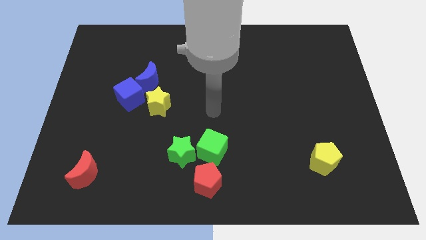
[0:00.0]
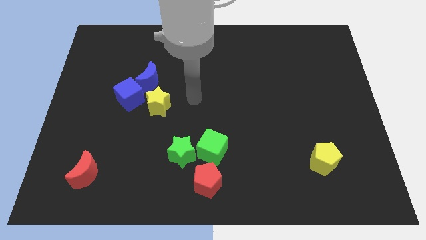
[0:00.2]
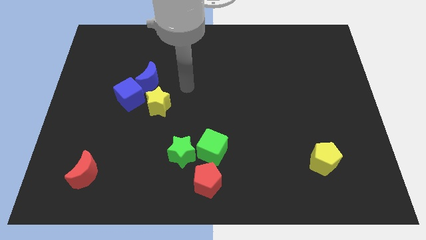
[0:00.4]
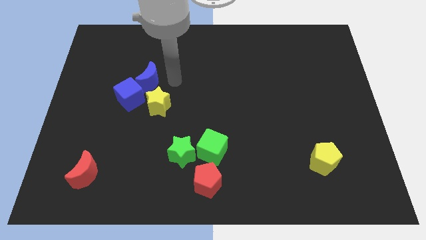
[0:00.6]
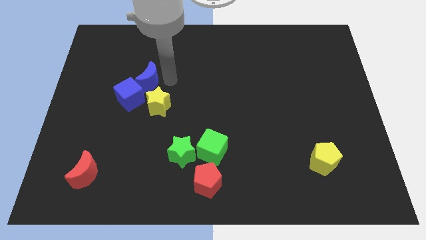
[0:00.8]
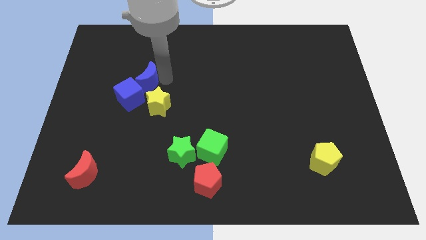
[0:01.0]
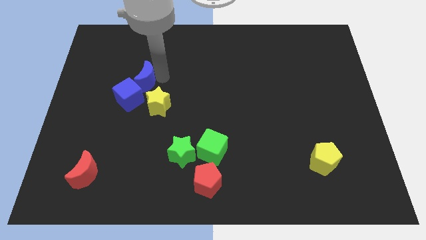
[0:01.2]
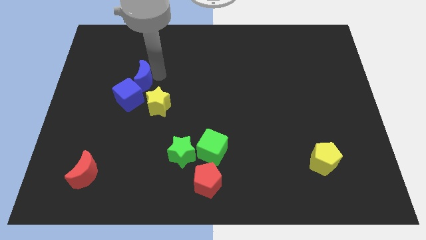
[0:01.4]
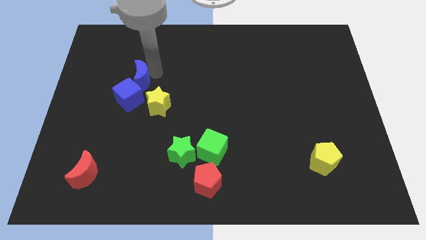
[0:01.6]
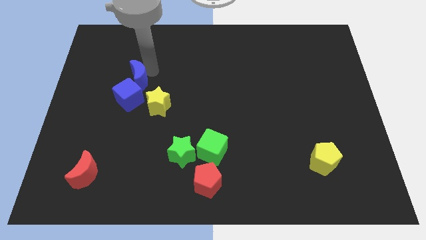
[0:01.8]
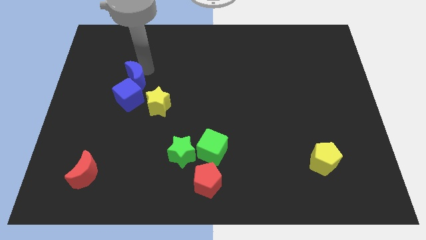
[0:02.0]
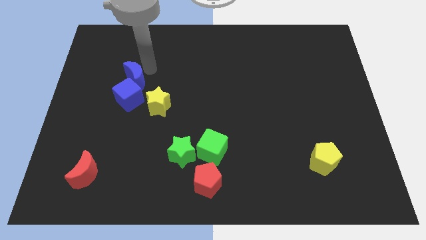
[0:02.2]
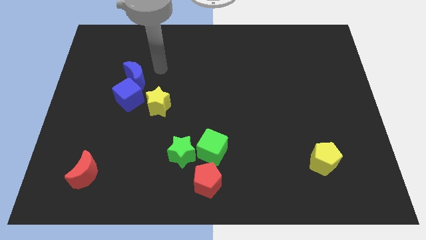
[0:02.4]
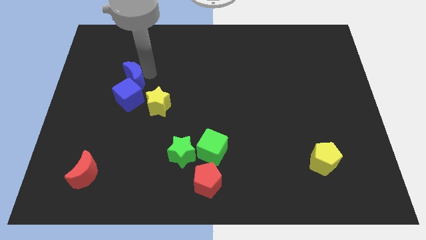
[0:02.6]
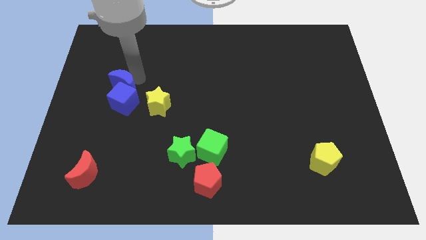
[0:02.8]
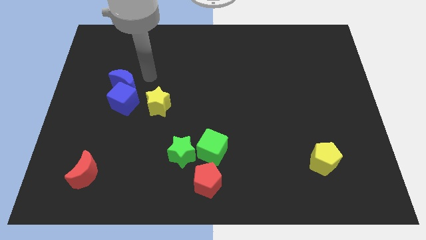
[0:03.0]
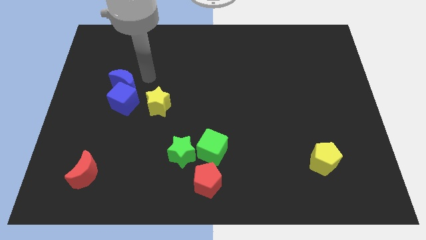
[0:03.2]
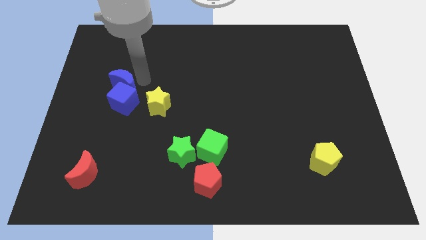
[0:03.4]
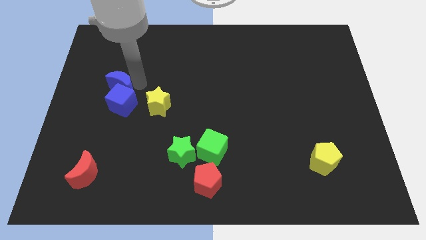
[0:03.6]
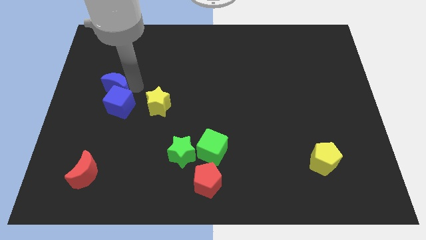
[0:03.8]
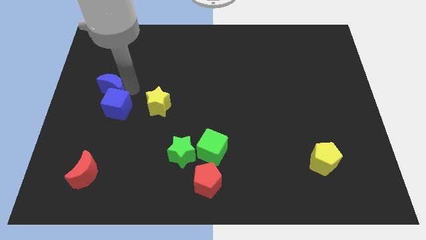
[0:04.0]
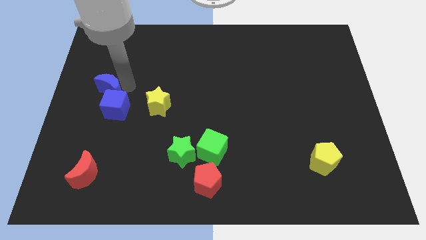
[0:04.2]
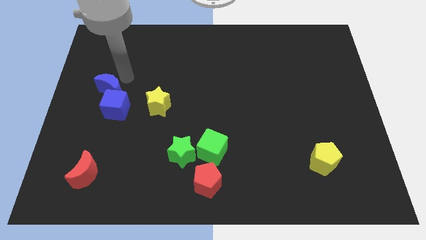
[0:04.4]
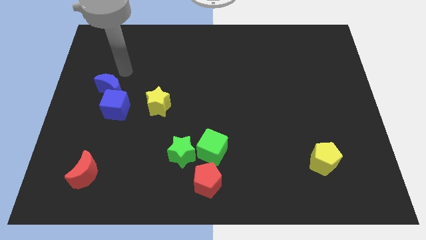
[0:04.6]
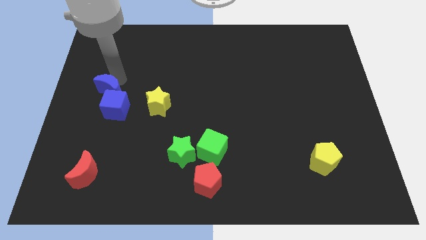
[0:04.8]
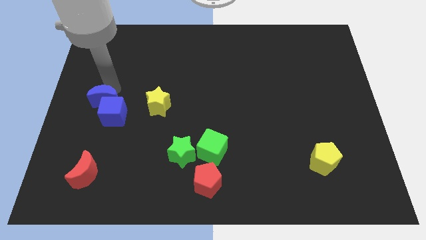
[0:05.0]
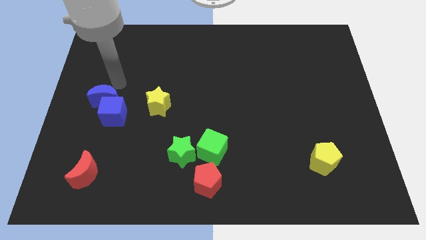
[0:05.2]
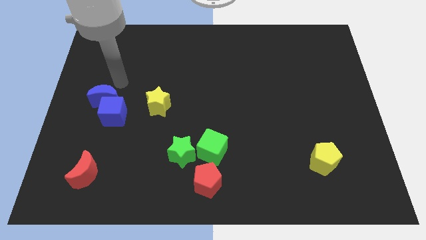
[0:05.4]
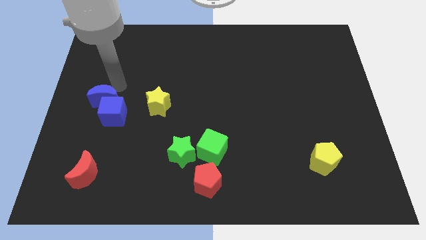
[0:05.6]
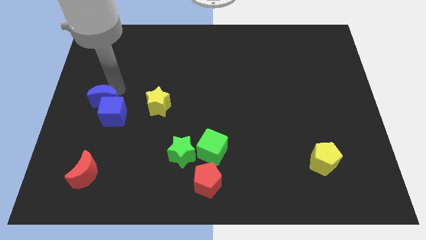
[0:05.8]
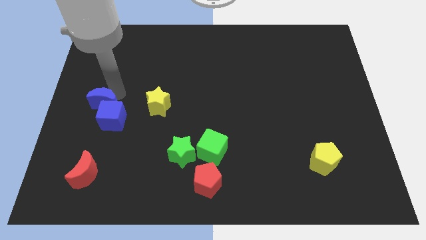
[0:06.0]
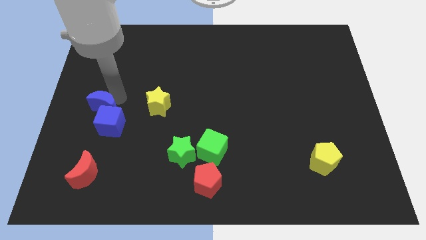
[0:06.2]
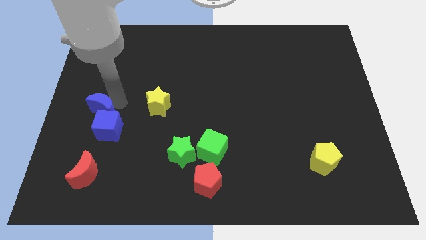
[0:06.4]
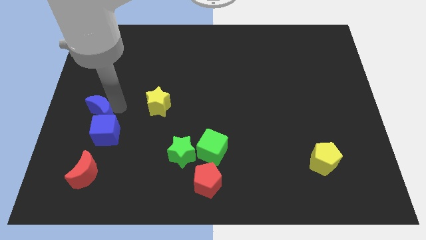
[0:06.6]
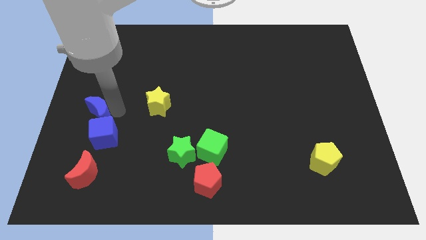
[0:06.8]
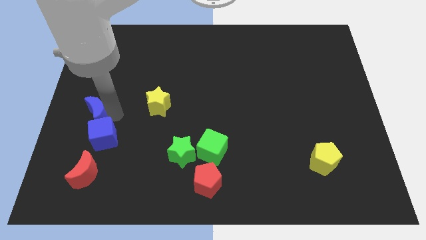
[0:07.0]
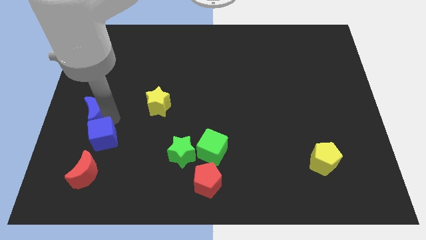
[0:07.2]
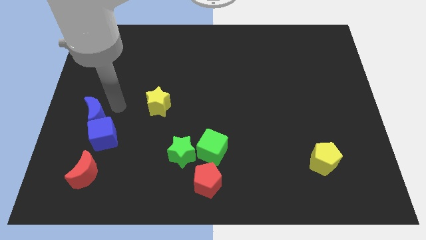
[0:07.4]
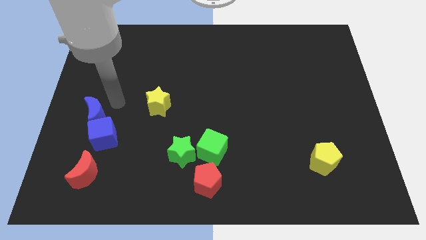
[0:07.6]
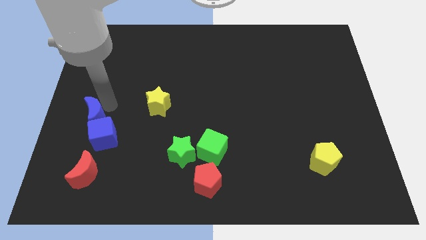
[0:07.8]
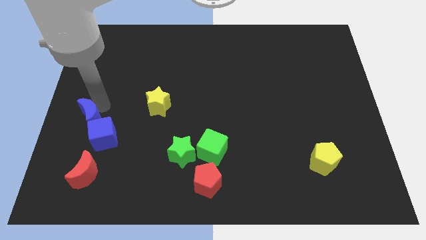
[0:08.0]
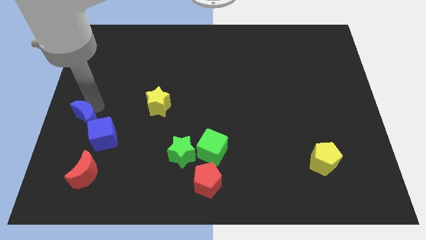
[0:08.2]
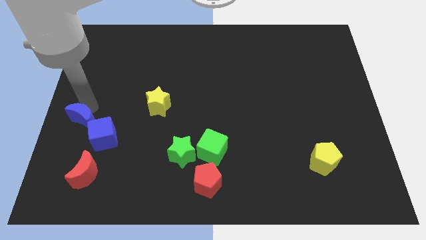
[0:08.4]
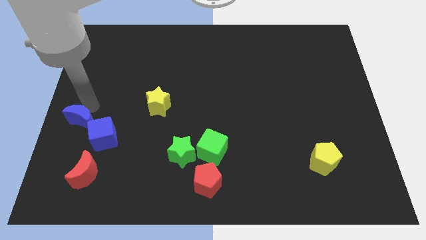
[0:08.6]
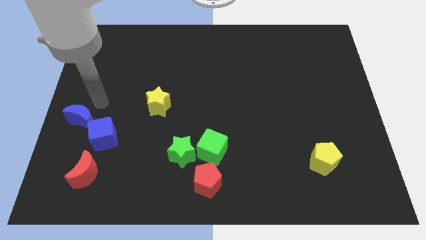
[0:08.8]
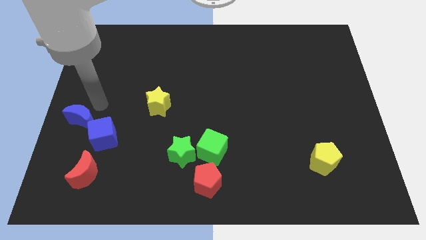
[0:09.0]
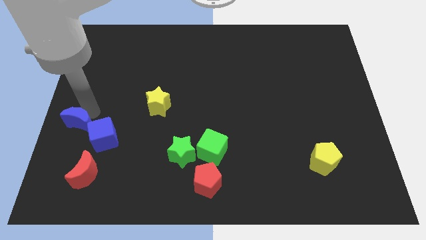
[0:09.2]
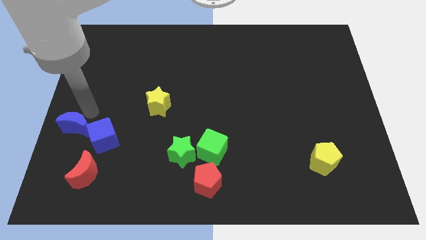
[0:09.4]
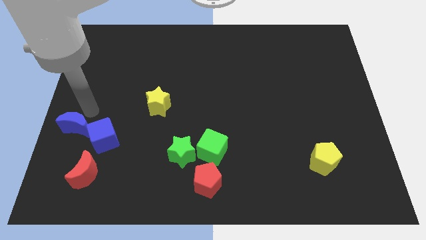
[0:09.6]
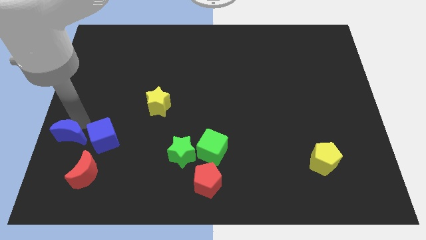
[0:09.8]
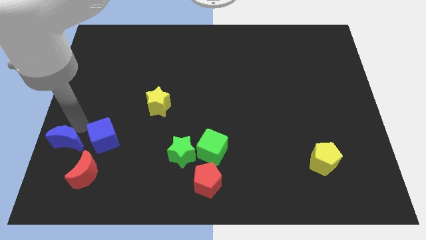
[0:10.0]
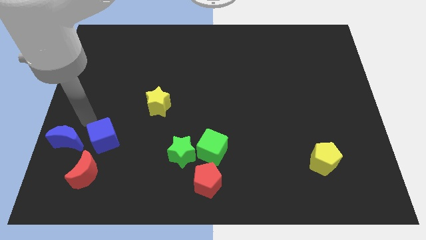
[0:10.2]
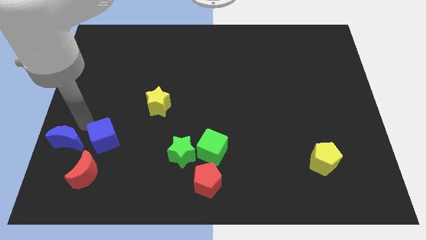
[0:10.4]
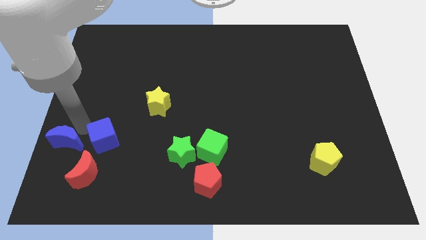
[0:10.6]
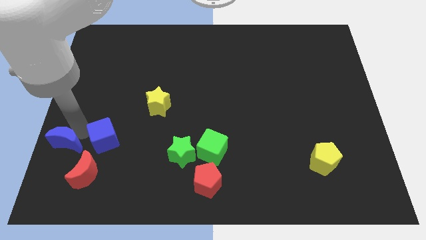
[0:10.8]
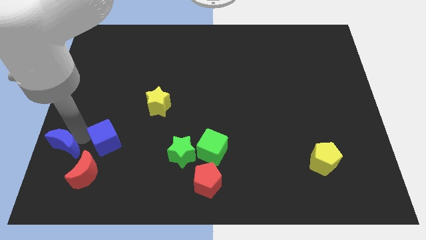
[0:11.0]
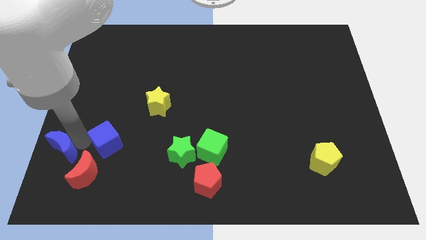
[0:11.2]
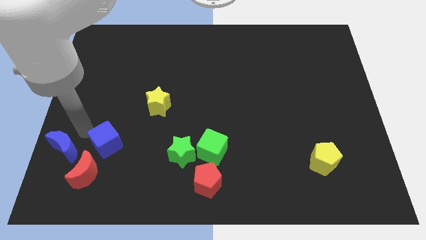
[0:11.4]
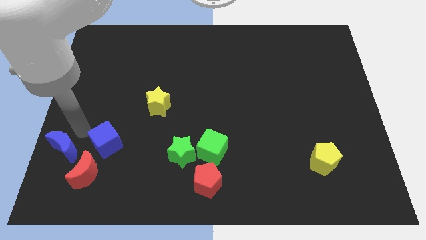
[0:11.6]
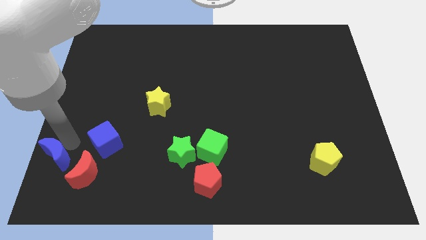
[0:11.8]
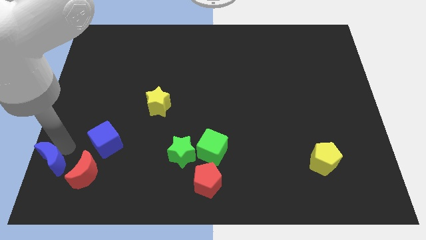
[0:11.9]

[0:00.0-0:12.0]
slide the blue moon to the bottom left corner

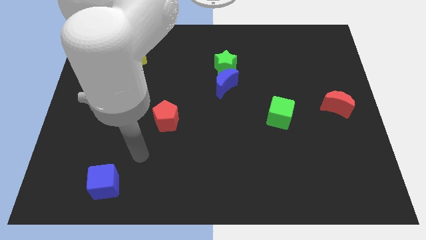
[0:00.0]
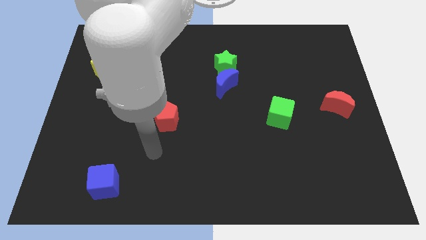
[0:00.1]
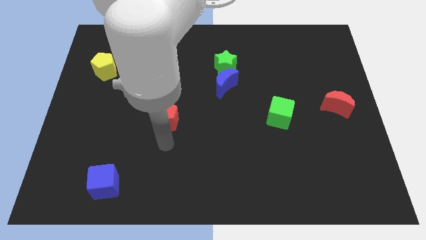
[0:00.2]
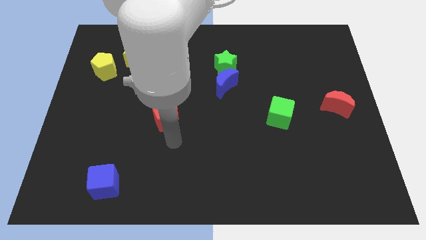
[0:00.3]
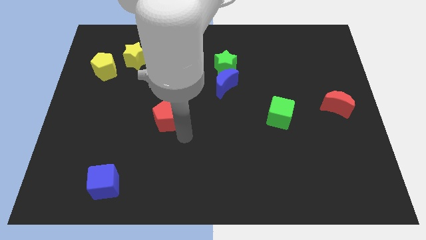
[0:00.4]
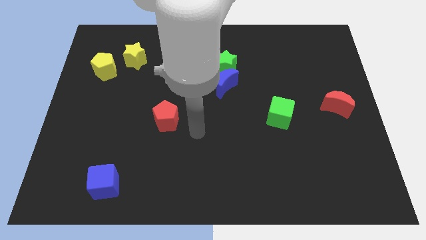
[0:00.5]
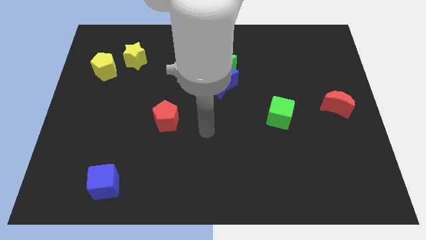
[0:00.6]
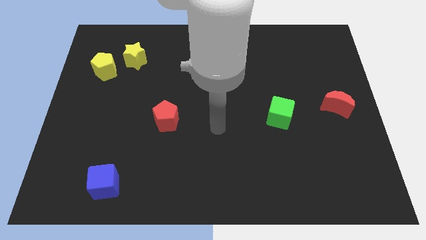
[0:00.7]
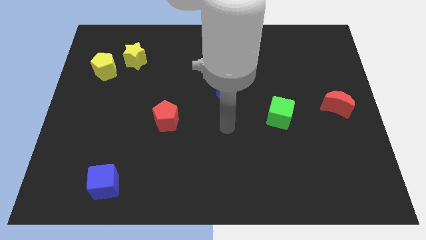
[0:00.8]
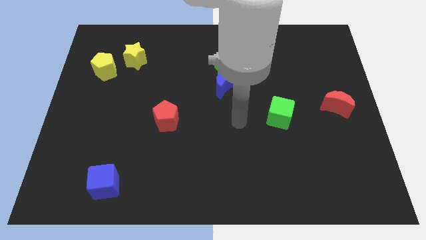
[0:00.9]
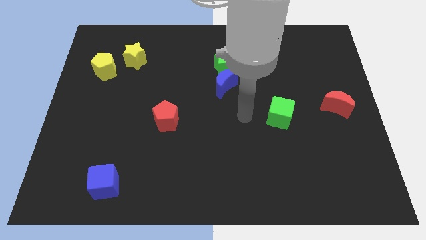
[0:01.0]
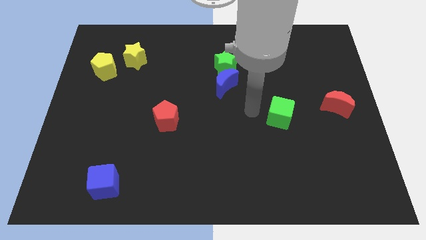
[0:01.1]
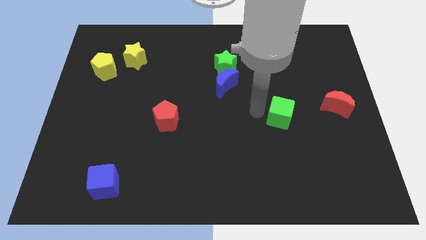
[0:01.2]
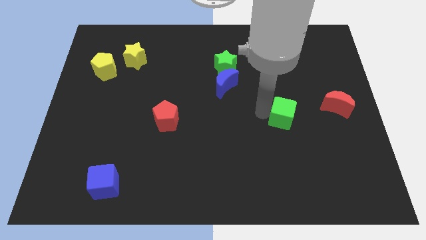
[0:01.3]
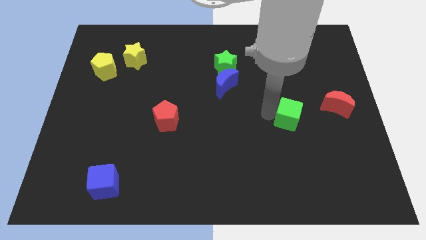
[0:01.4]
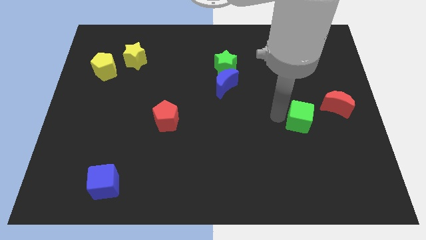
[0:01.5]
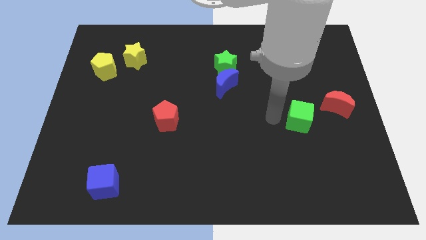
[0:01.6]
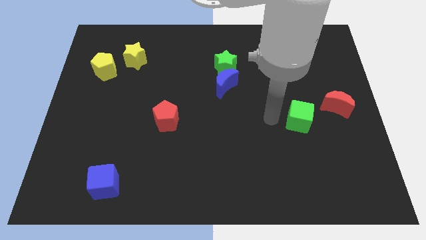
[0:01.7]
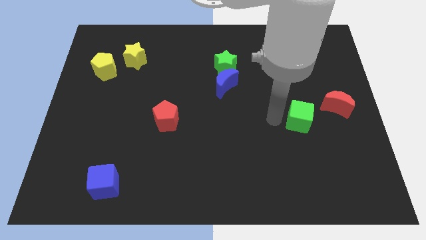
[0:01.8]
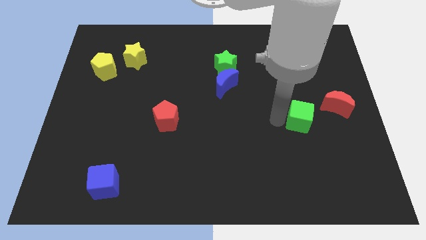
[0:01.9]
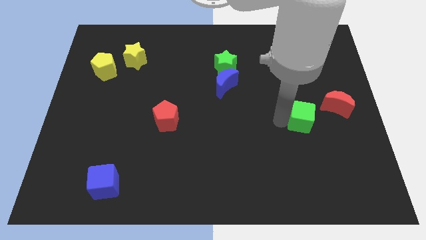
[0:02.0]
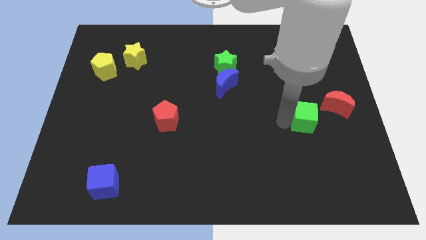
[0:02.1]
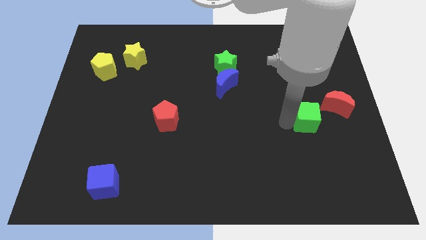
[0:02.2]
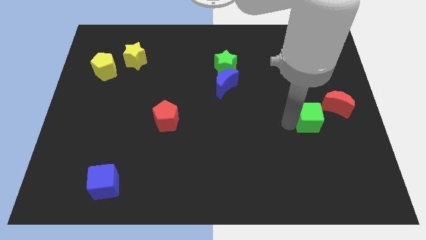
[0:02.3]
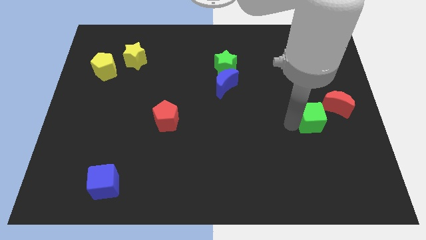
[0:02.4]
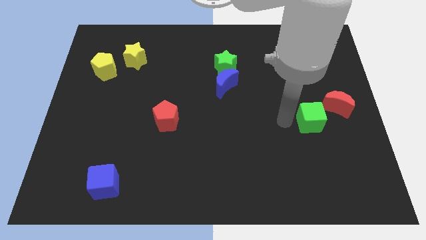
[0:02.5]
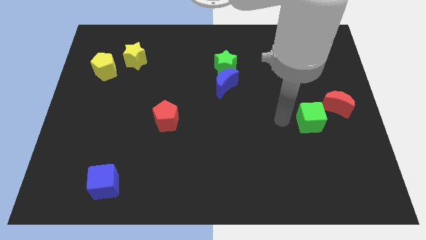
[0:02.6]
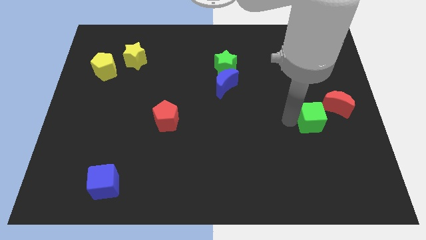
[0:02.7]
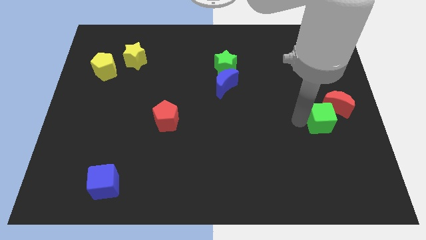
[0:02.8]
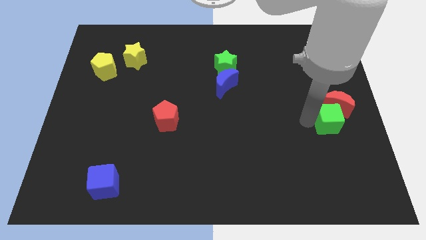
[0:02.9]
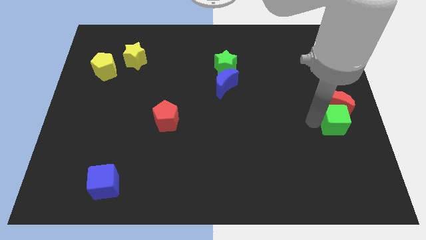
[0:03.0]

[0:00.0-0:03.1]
slide the green cube to the right side of the board
